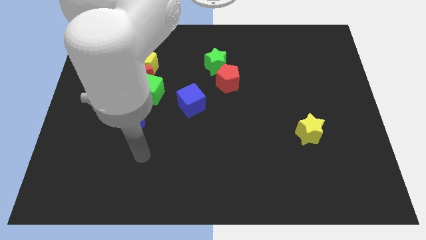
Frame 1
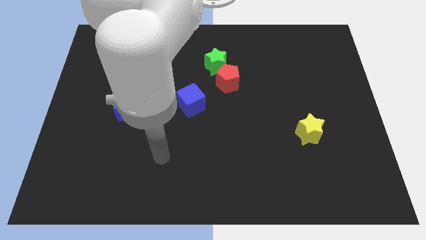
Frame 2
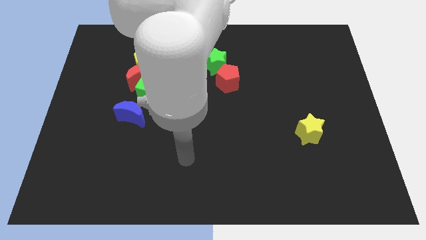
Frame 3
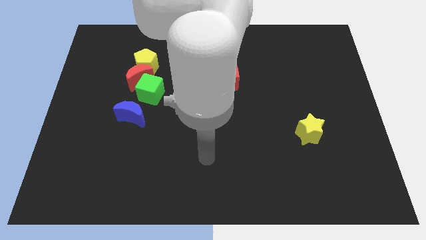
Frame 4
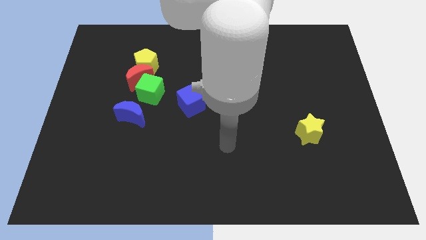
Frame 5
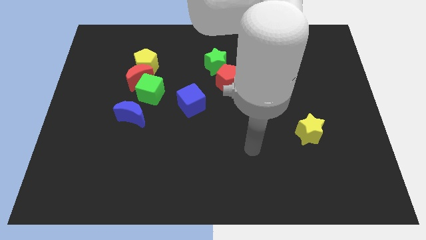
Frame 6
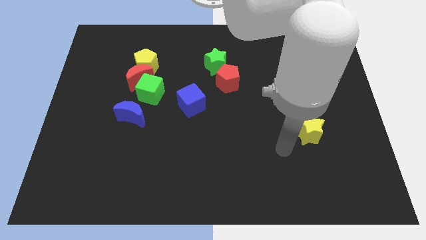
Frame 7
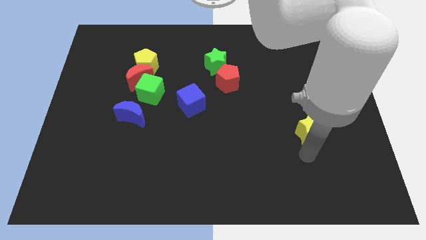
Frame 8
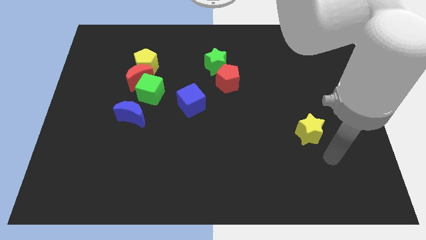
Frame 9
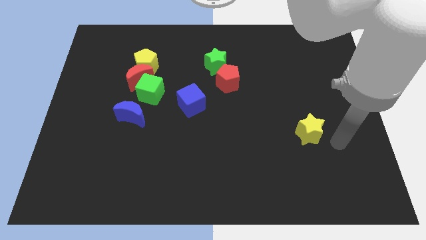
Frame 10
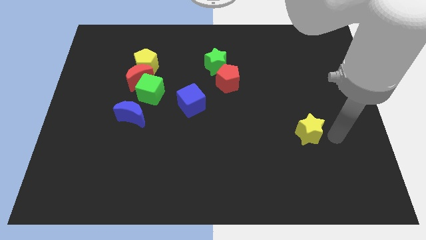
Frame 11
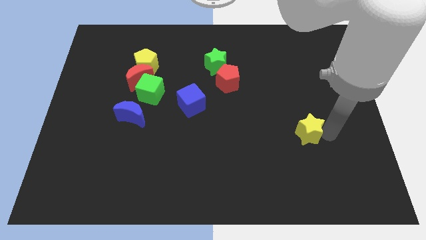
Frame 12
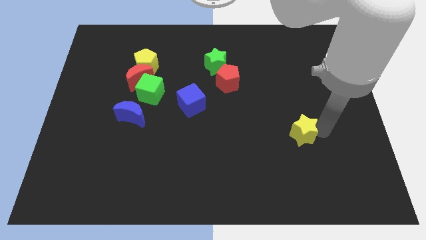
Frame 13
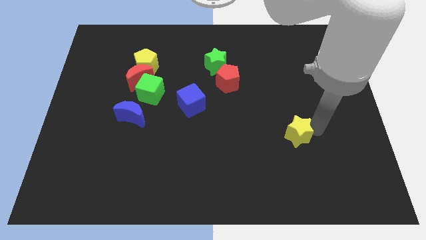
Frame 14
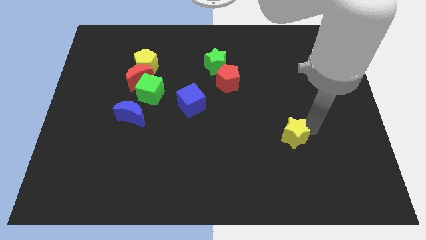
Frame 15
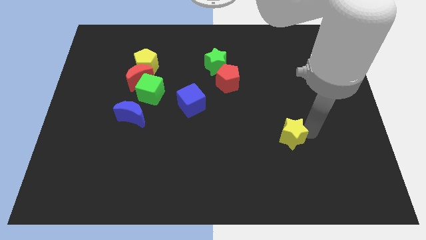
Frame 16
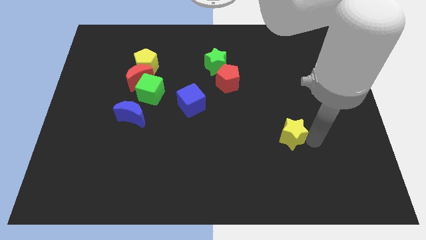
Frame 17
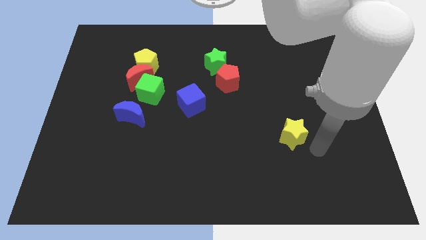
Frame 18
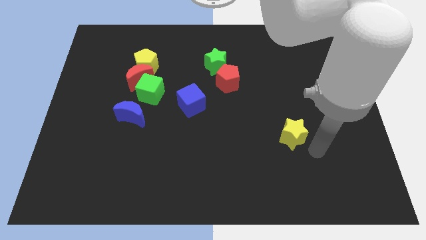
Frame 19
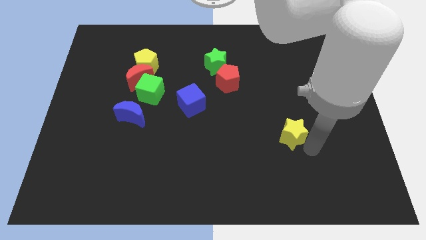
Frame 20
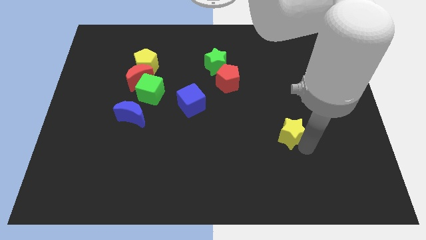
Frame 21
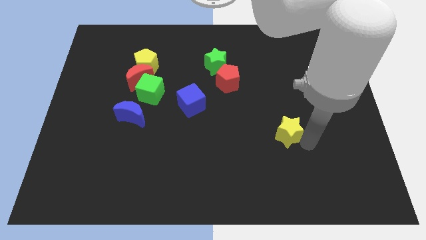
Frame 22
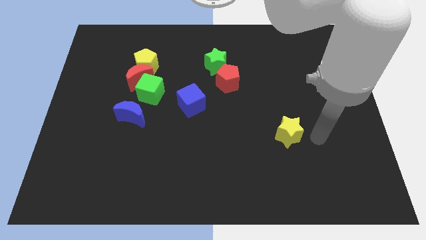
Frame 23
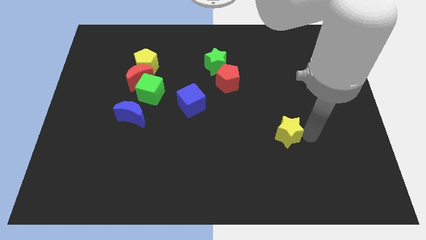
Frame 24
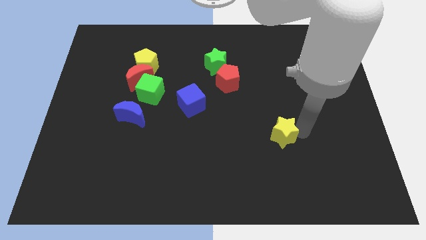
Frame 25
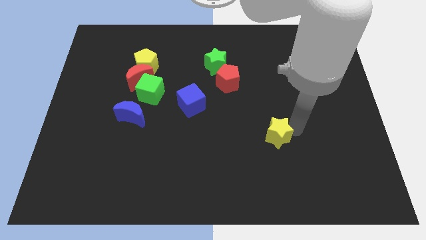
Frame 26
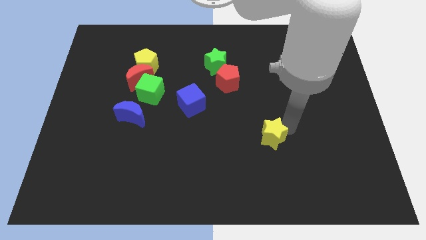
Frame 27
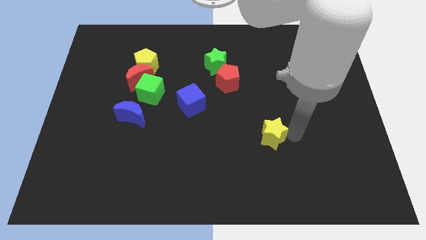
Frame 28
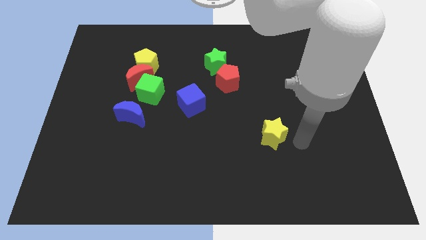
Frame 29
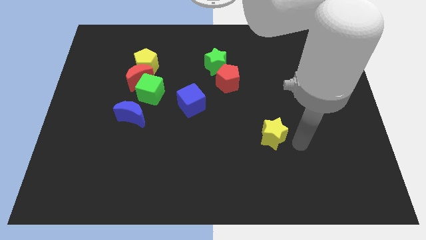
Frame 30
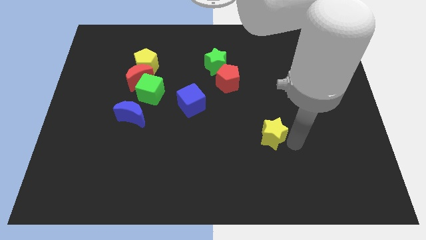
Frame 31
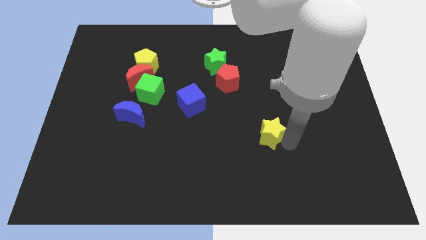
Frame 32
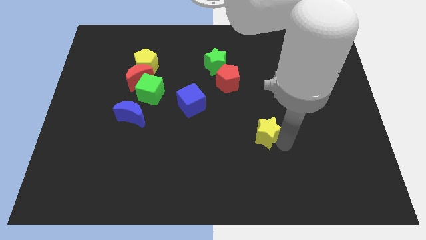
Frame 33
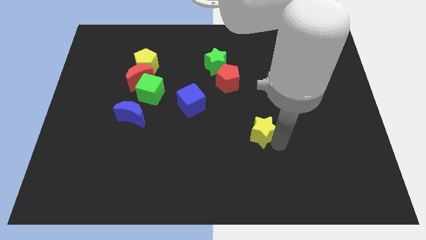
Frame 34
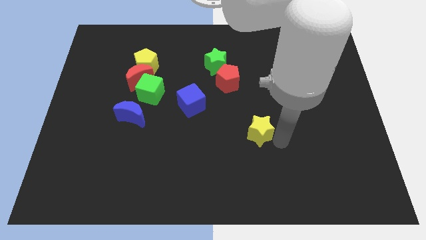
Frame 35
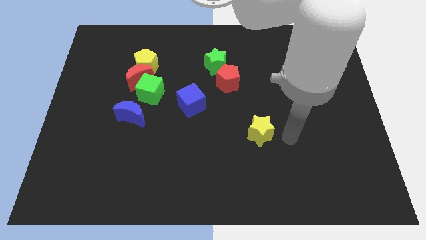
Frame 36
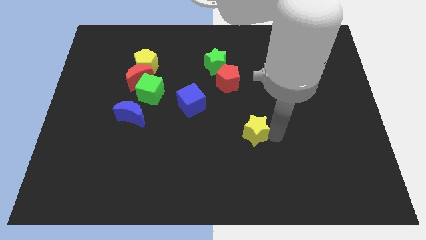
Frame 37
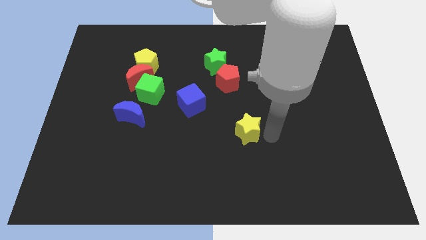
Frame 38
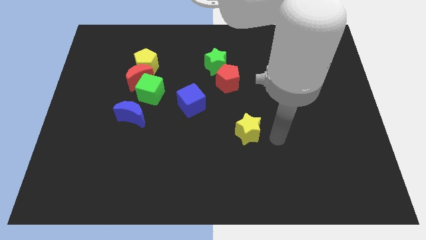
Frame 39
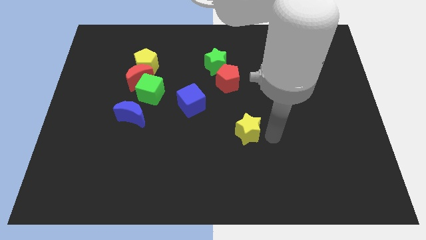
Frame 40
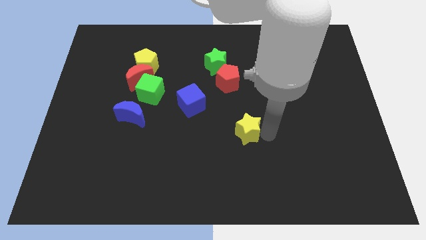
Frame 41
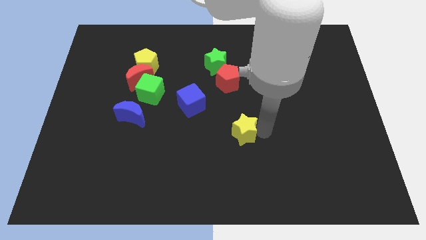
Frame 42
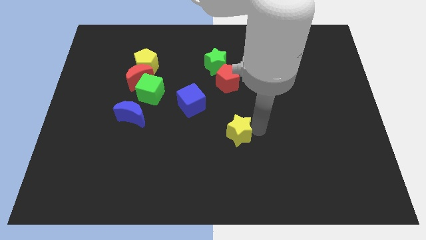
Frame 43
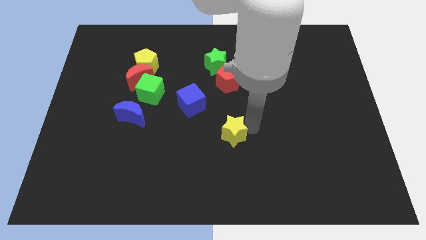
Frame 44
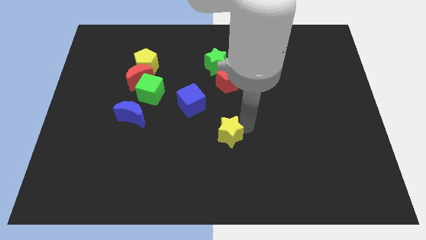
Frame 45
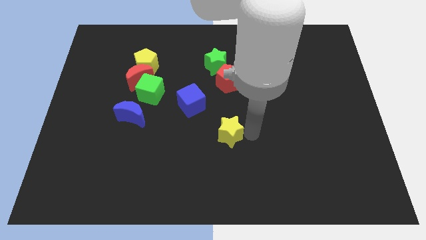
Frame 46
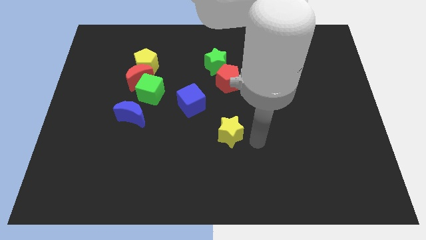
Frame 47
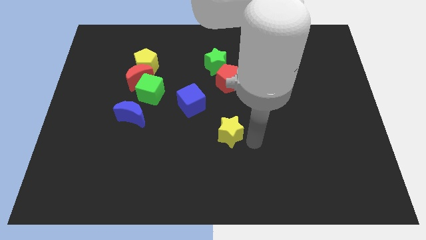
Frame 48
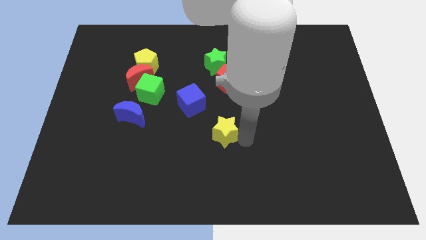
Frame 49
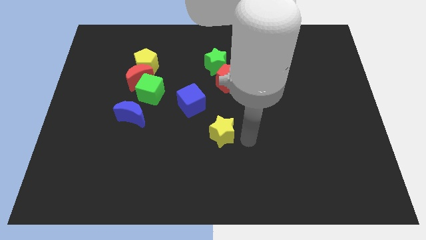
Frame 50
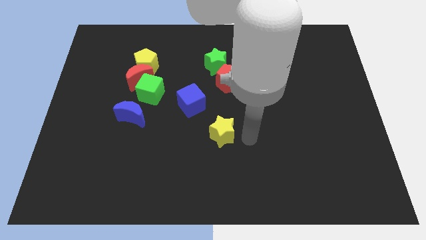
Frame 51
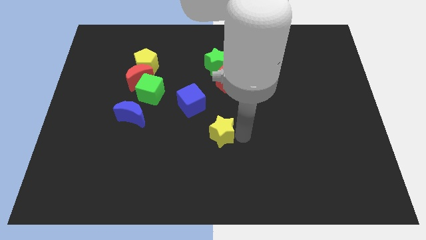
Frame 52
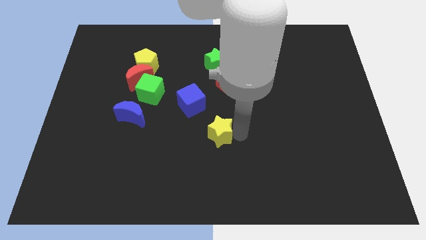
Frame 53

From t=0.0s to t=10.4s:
slide the yellow star left

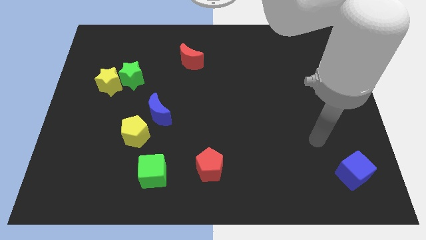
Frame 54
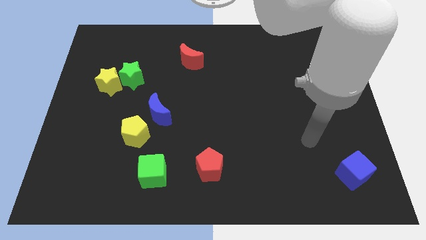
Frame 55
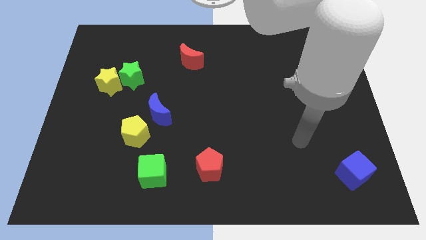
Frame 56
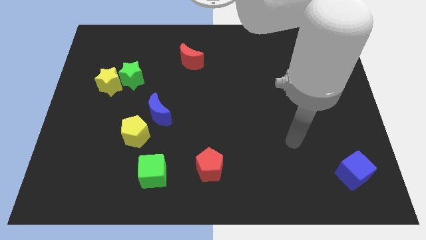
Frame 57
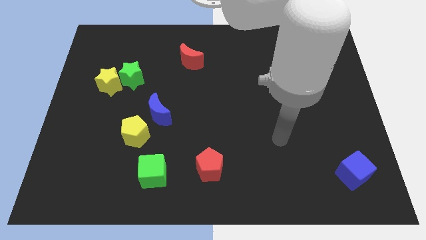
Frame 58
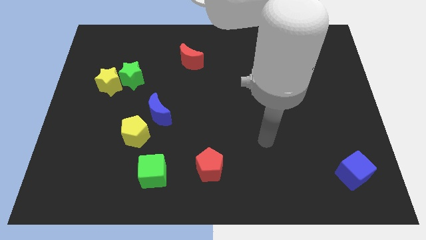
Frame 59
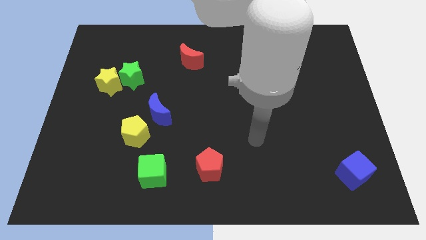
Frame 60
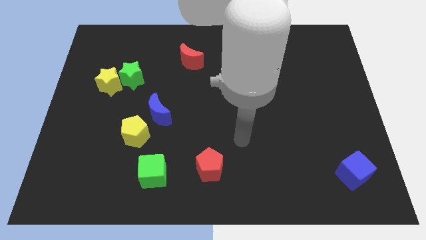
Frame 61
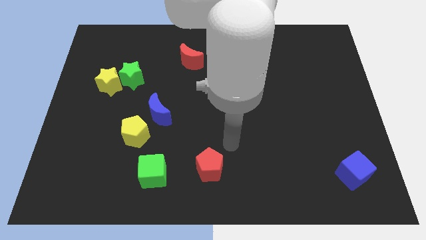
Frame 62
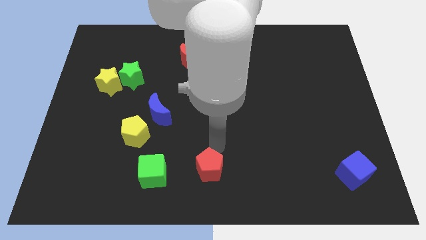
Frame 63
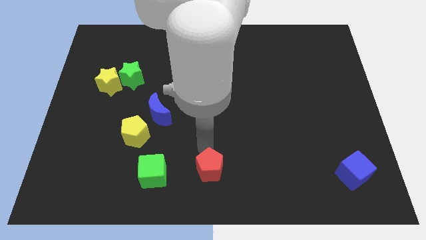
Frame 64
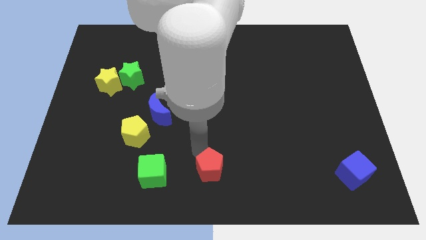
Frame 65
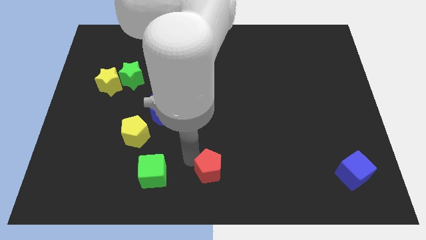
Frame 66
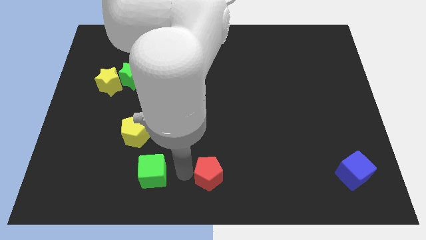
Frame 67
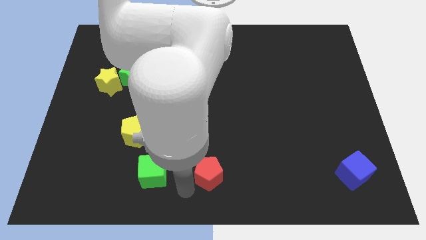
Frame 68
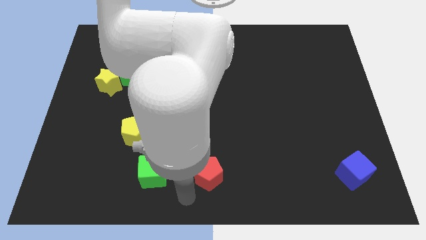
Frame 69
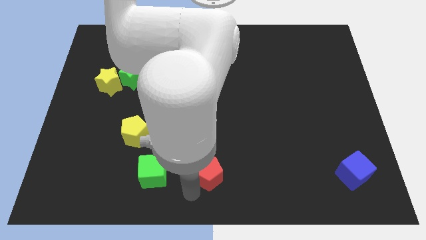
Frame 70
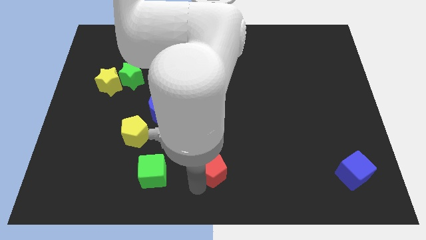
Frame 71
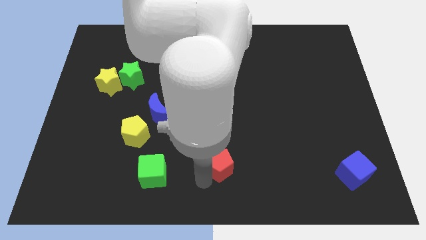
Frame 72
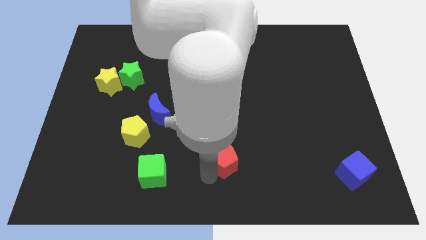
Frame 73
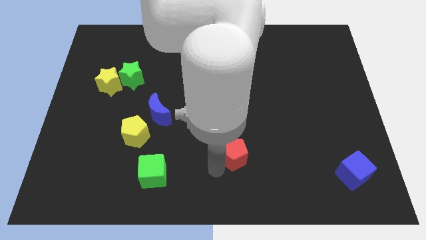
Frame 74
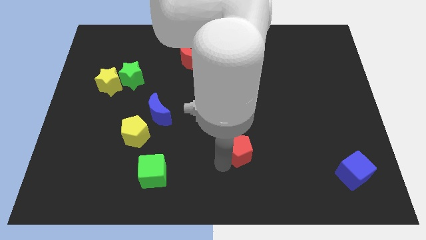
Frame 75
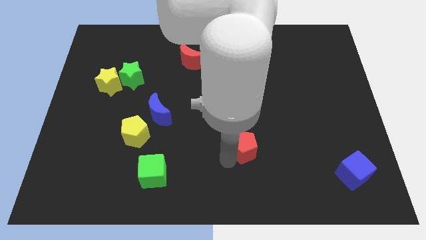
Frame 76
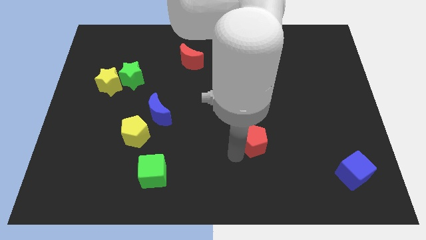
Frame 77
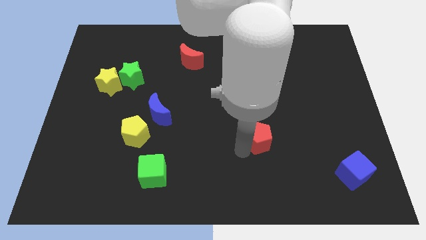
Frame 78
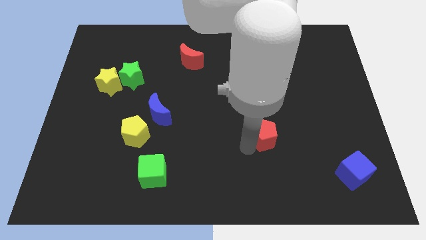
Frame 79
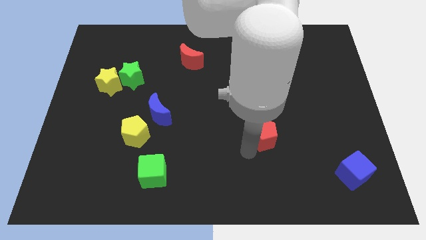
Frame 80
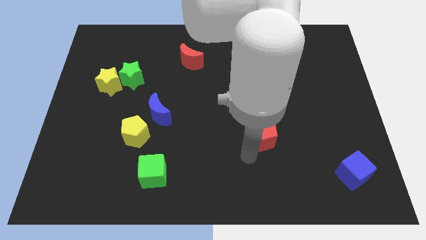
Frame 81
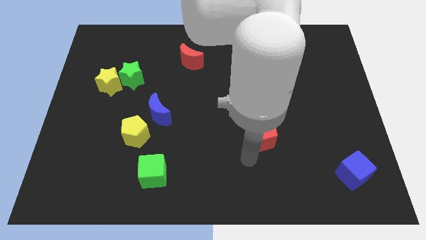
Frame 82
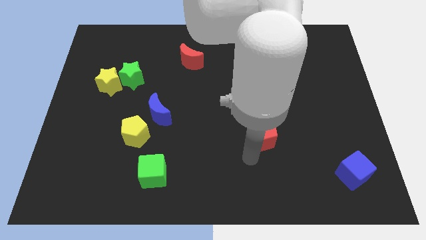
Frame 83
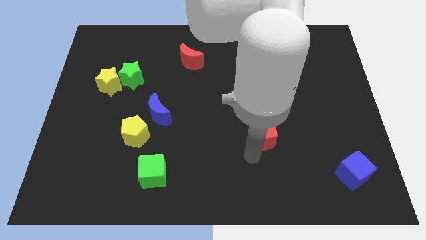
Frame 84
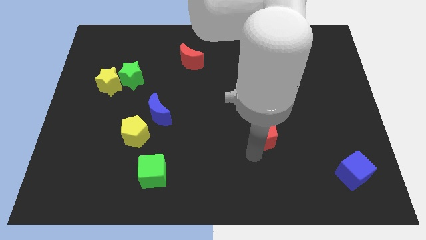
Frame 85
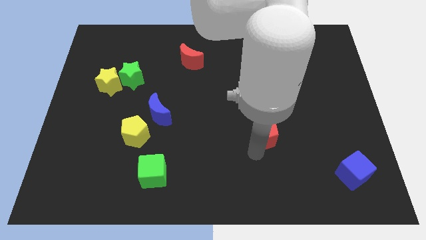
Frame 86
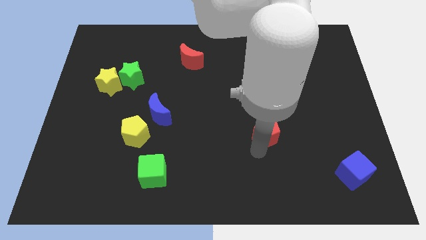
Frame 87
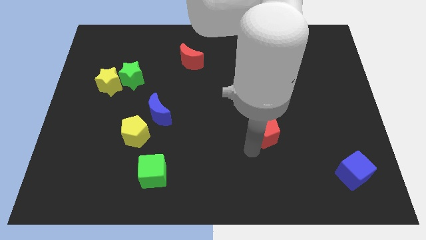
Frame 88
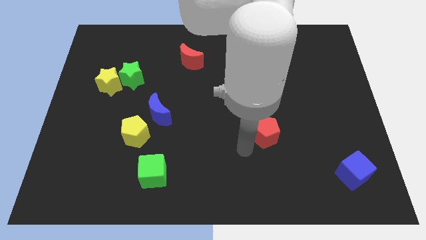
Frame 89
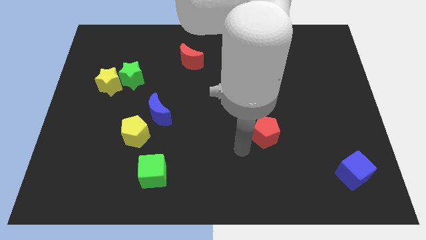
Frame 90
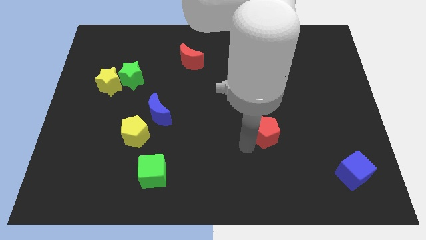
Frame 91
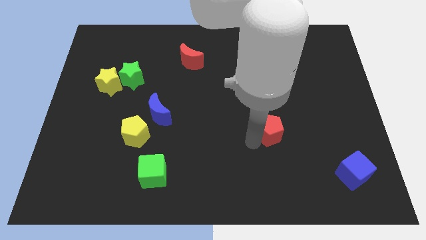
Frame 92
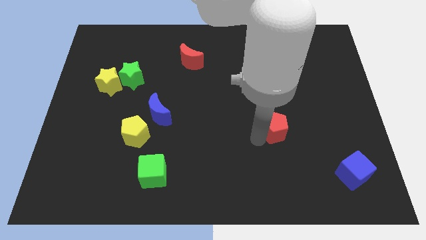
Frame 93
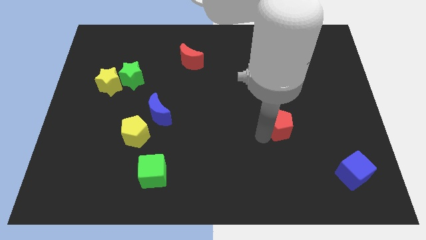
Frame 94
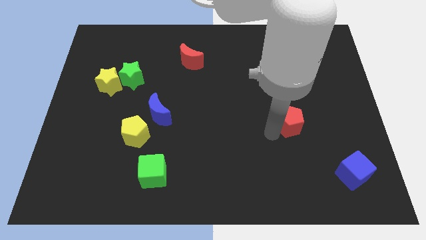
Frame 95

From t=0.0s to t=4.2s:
push the red pentagon up and to the right
